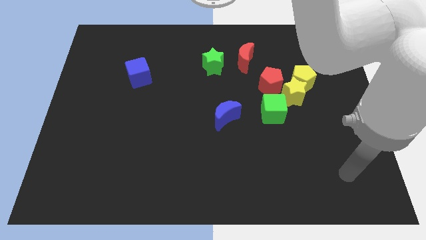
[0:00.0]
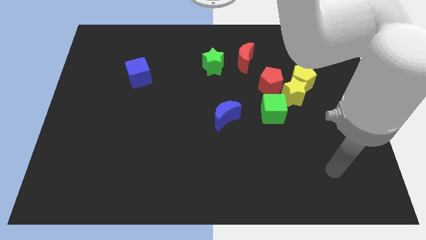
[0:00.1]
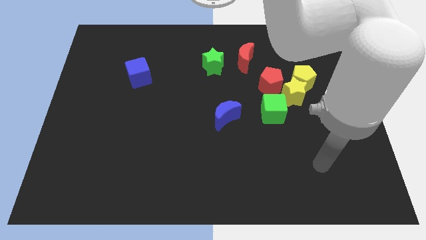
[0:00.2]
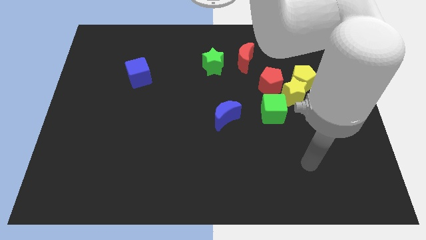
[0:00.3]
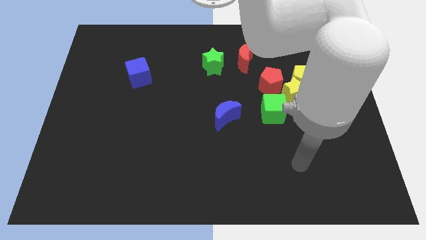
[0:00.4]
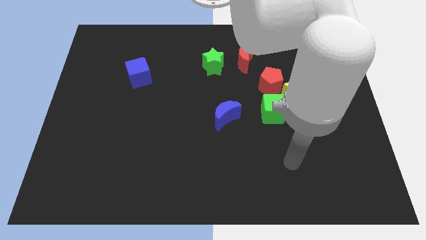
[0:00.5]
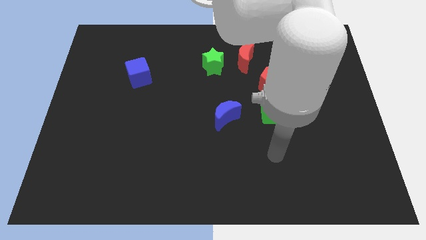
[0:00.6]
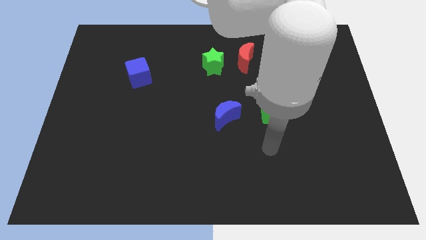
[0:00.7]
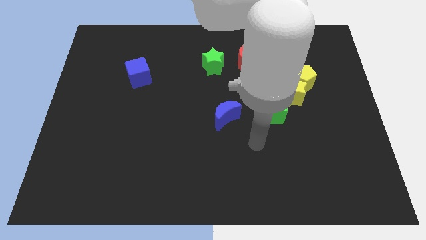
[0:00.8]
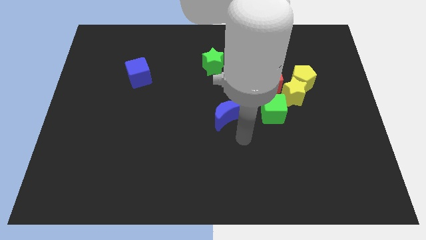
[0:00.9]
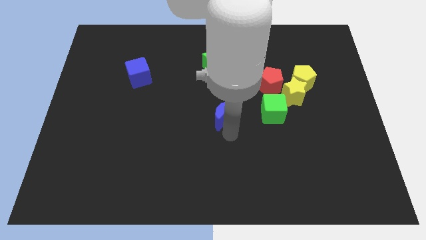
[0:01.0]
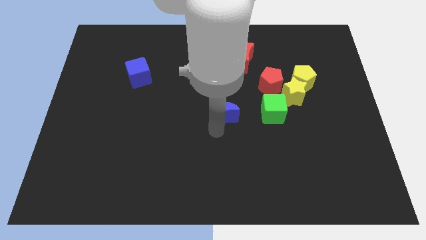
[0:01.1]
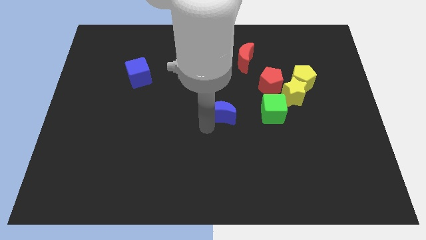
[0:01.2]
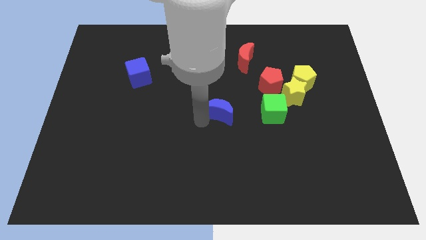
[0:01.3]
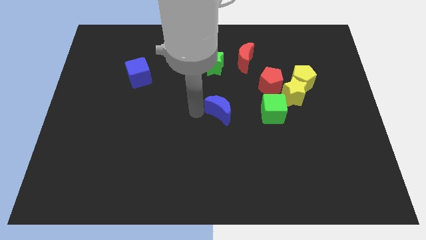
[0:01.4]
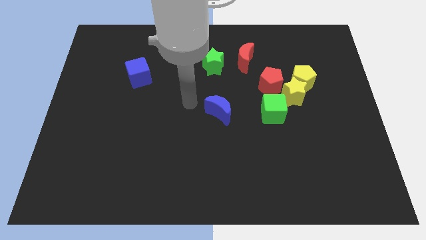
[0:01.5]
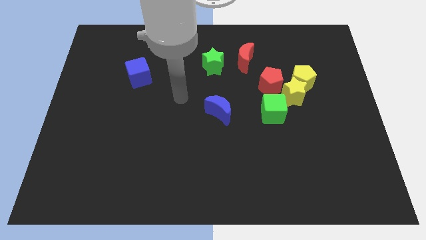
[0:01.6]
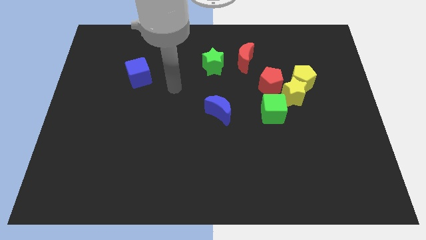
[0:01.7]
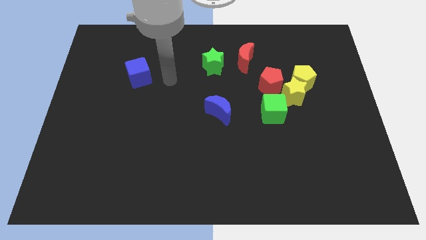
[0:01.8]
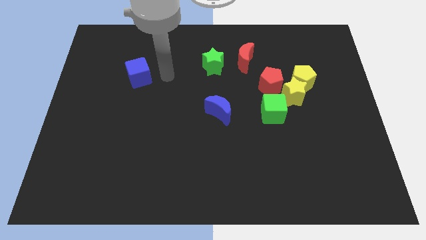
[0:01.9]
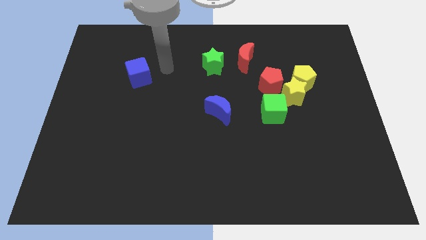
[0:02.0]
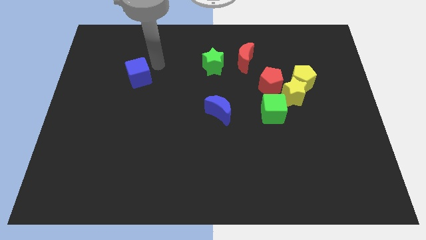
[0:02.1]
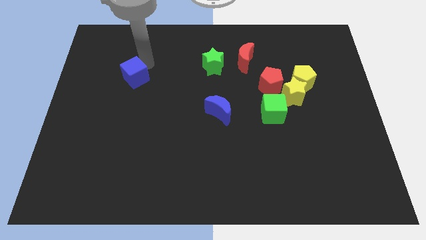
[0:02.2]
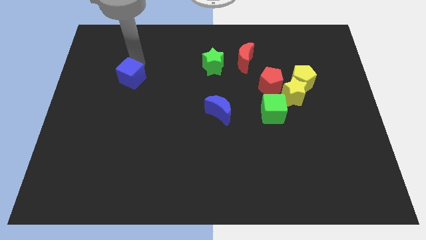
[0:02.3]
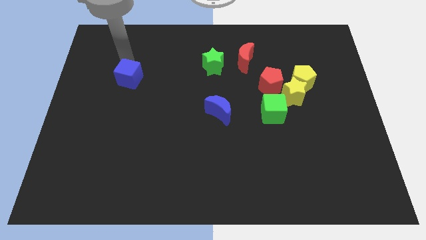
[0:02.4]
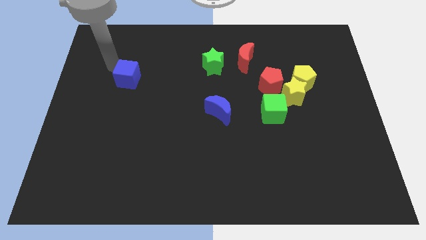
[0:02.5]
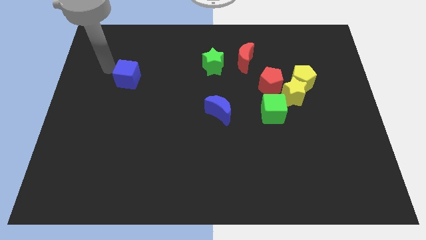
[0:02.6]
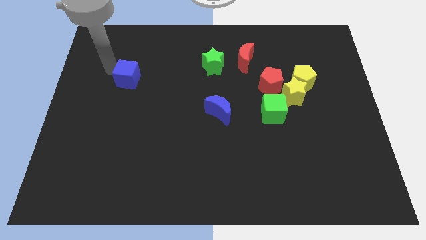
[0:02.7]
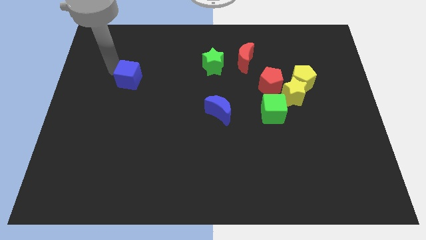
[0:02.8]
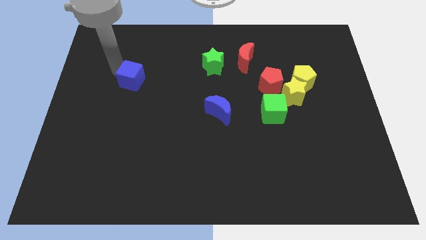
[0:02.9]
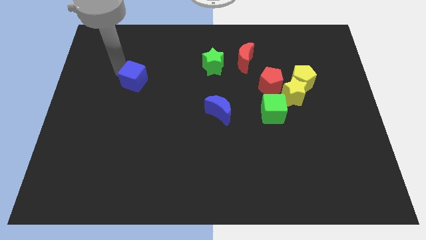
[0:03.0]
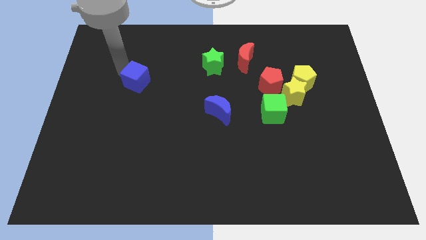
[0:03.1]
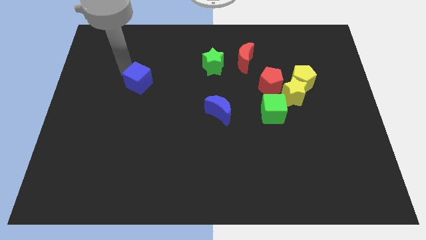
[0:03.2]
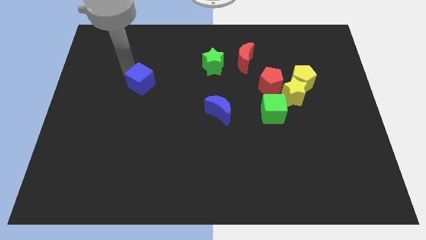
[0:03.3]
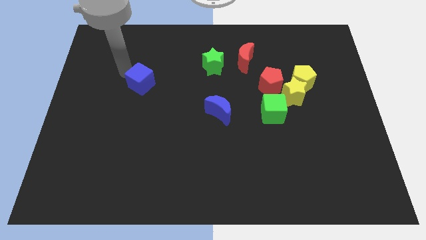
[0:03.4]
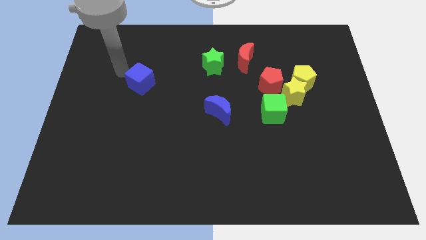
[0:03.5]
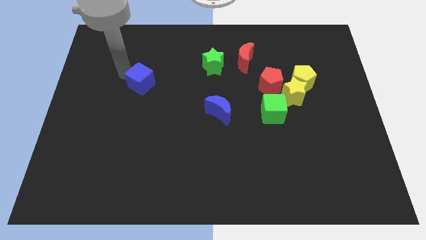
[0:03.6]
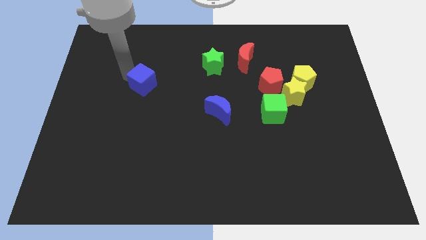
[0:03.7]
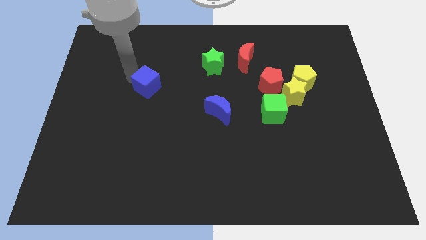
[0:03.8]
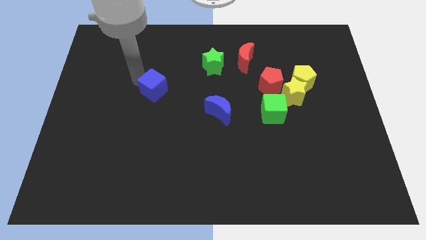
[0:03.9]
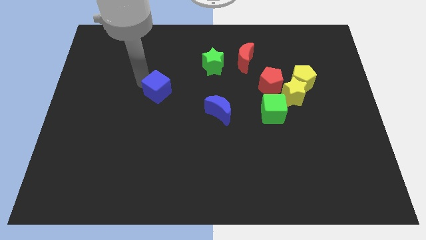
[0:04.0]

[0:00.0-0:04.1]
push the blue cube diagonally down and right a little

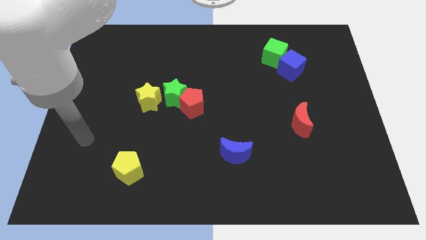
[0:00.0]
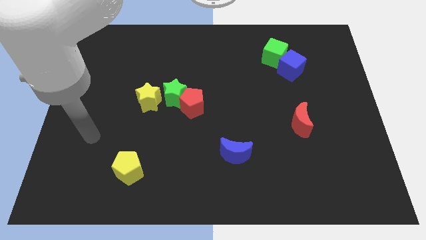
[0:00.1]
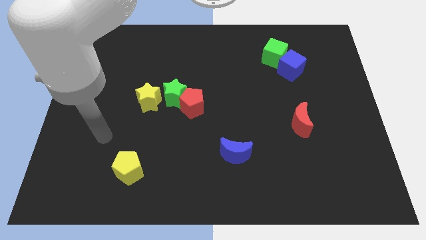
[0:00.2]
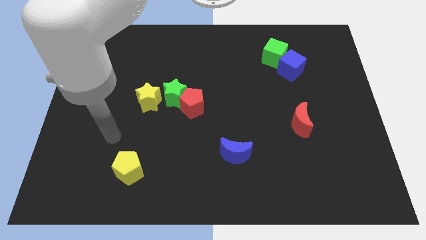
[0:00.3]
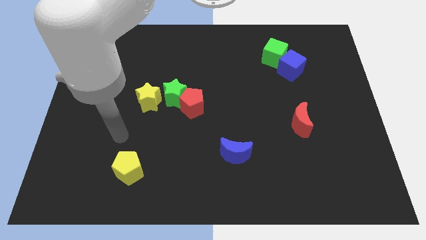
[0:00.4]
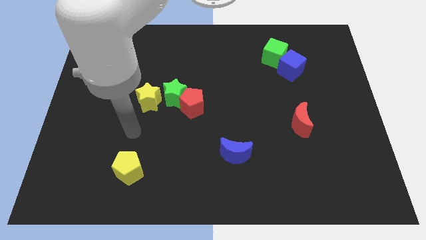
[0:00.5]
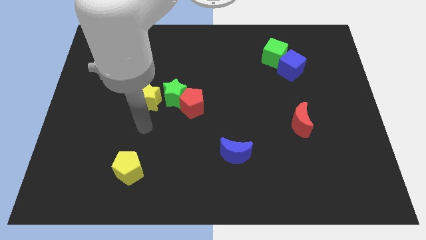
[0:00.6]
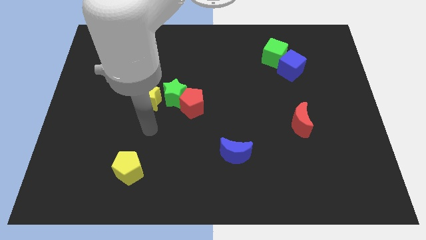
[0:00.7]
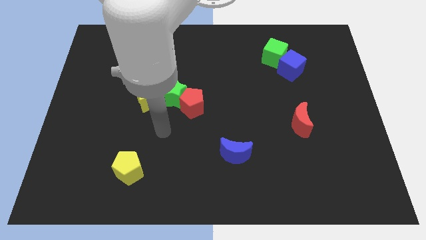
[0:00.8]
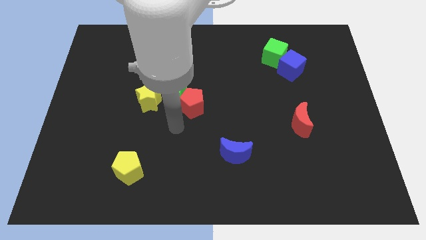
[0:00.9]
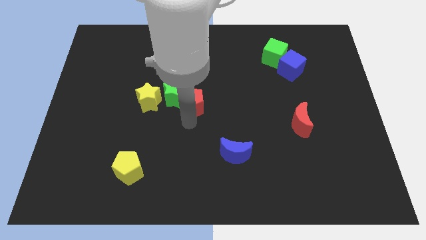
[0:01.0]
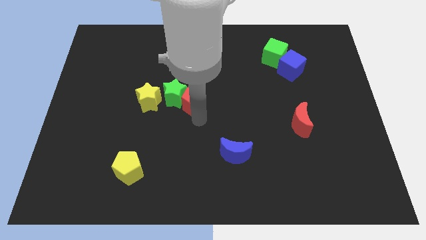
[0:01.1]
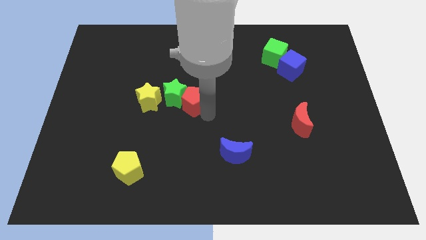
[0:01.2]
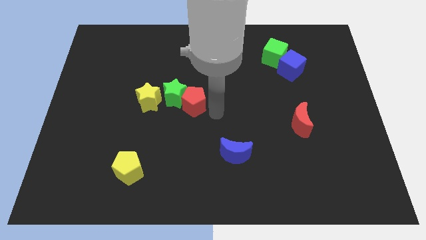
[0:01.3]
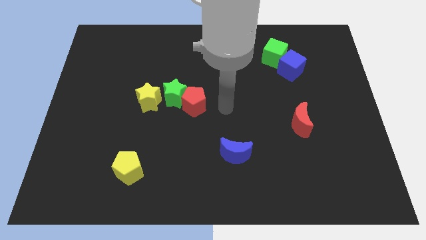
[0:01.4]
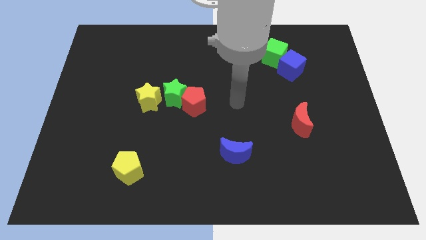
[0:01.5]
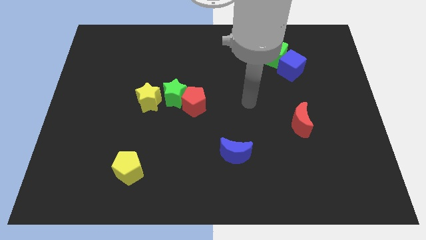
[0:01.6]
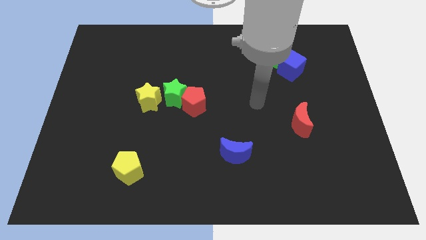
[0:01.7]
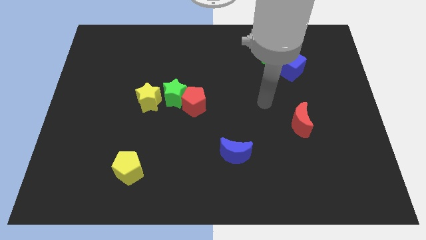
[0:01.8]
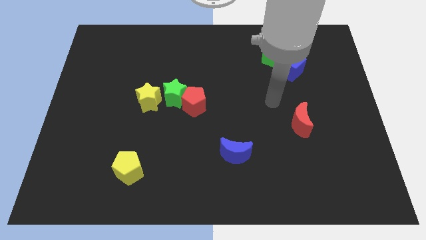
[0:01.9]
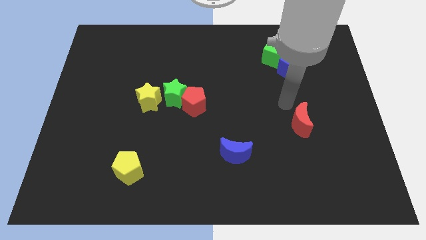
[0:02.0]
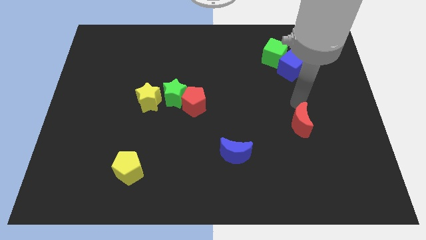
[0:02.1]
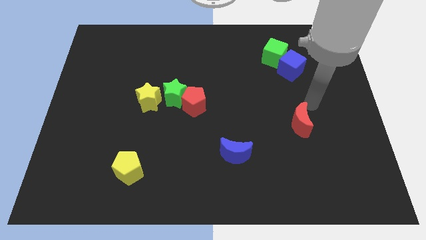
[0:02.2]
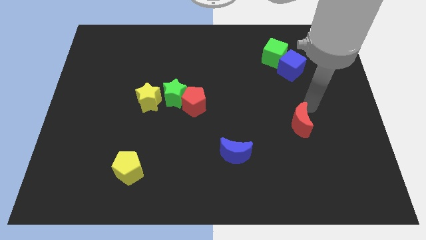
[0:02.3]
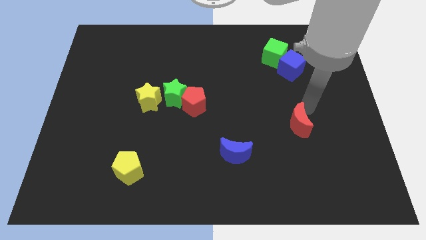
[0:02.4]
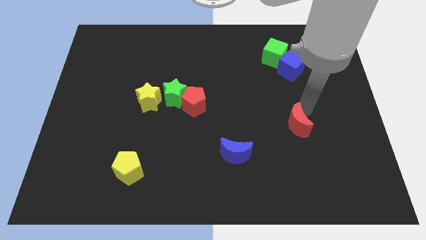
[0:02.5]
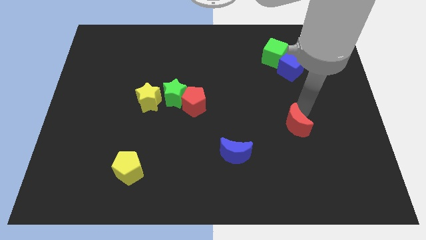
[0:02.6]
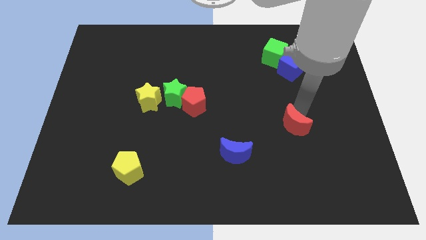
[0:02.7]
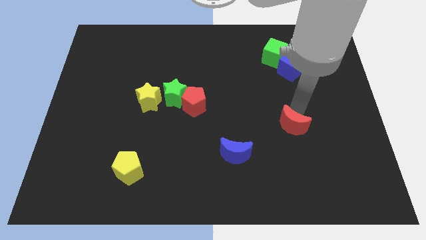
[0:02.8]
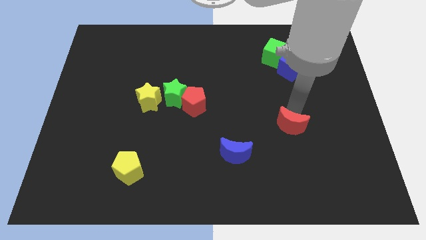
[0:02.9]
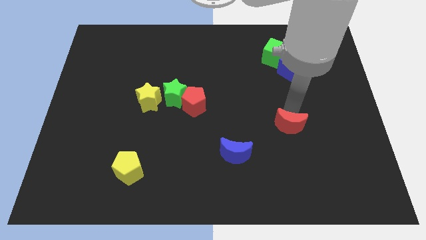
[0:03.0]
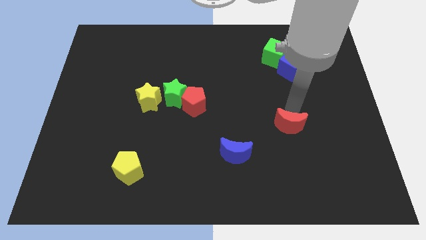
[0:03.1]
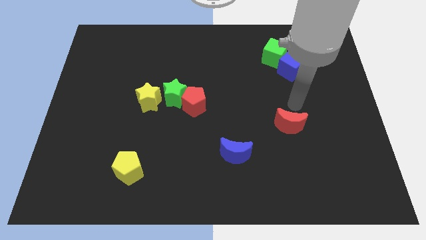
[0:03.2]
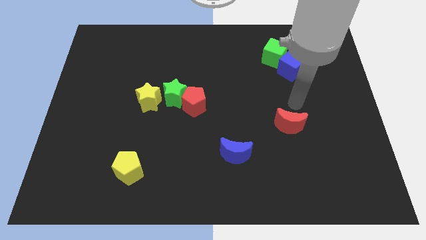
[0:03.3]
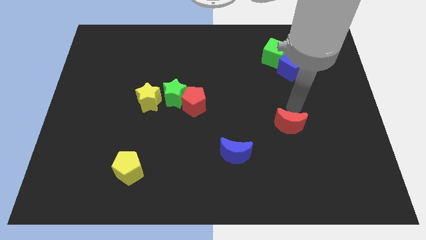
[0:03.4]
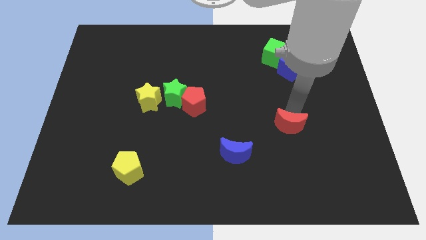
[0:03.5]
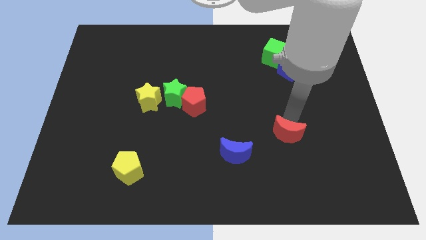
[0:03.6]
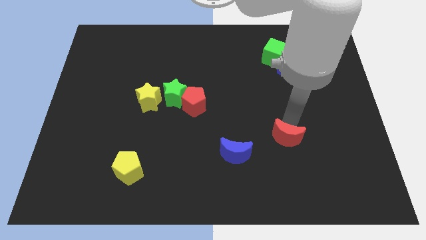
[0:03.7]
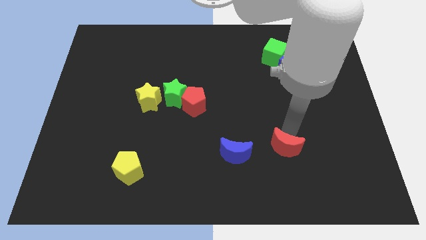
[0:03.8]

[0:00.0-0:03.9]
slightly slide the red moon downwards and then left
